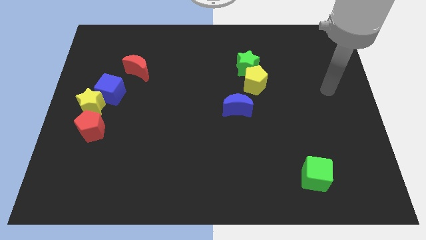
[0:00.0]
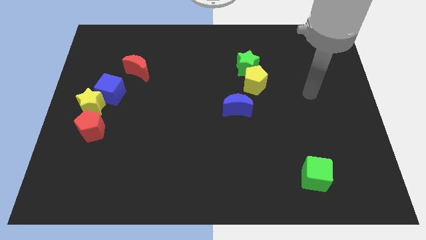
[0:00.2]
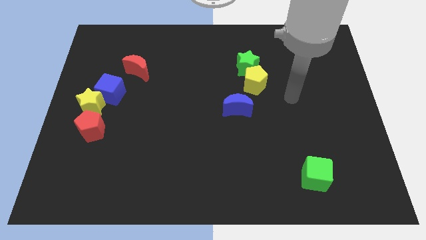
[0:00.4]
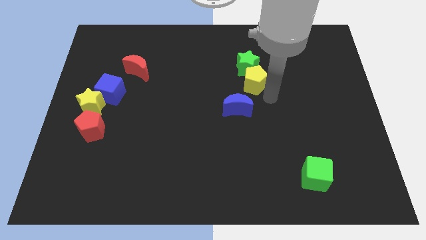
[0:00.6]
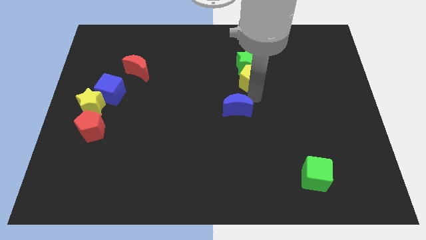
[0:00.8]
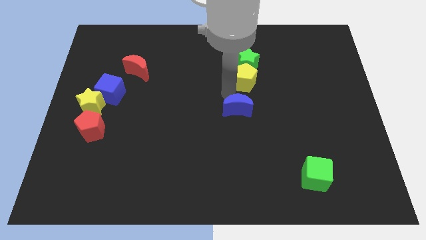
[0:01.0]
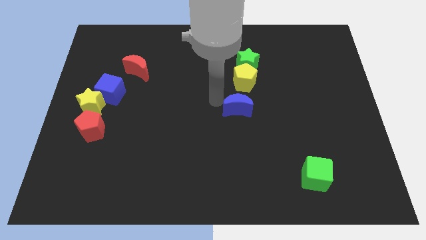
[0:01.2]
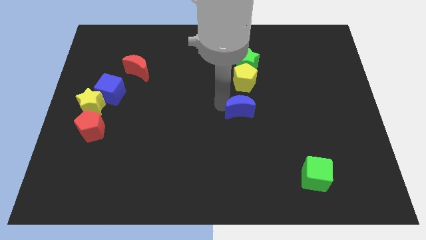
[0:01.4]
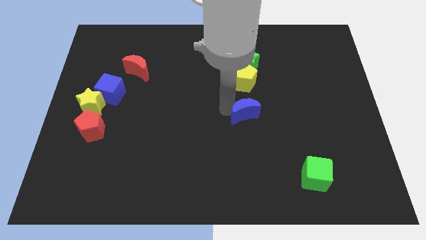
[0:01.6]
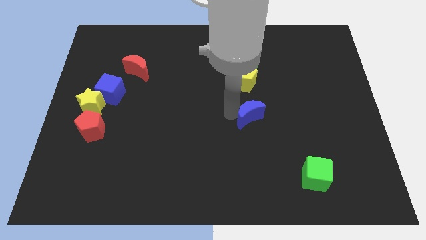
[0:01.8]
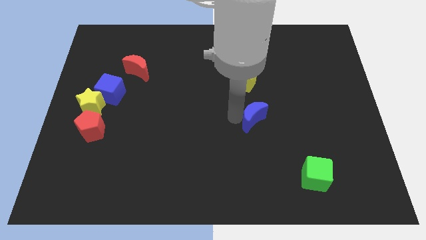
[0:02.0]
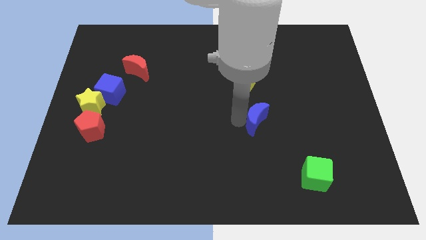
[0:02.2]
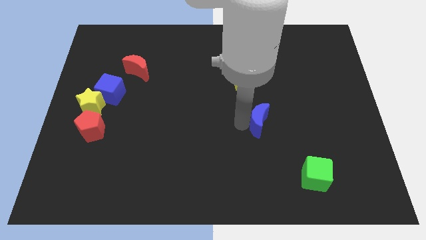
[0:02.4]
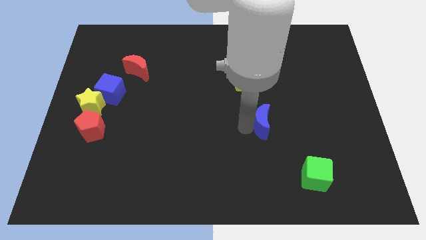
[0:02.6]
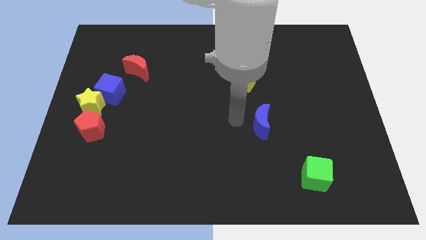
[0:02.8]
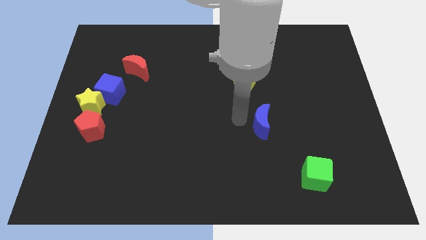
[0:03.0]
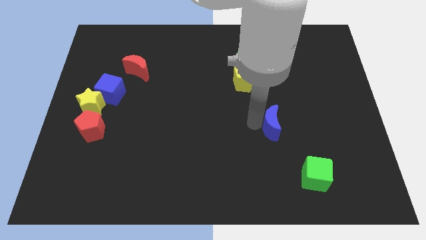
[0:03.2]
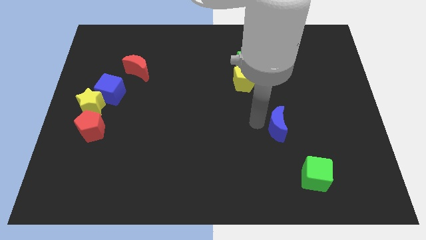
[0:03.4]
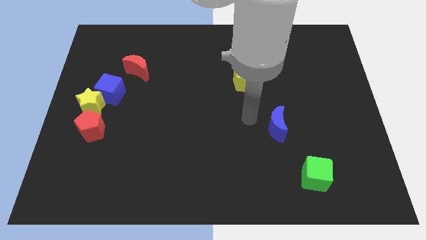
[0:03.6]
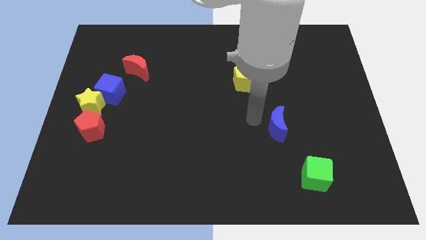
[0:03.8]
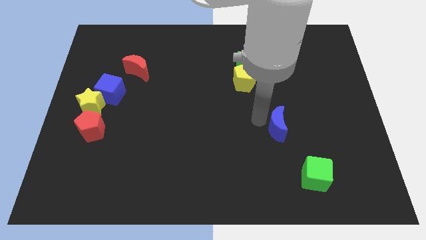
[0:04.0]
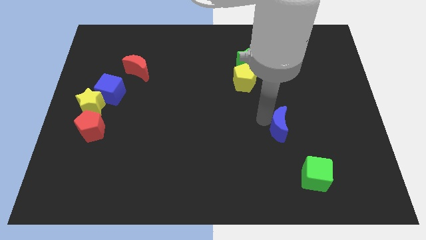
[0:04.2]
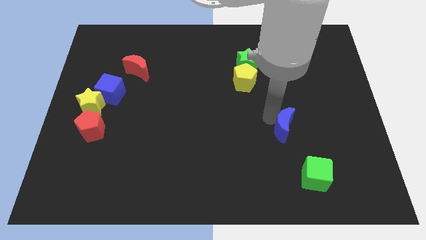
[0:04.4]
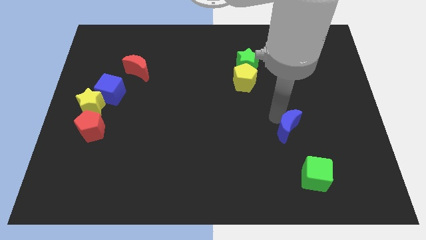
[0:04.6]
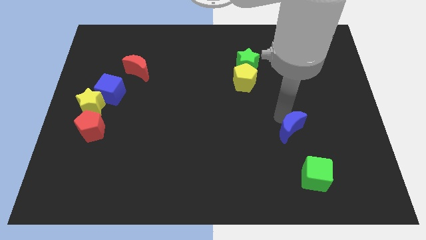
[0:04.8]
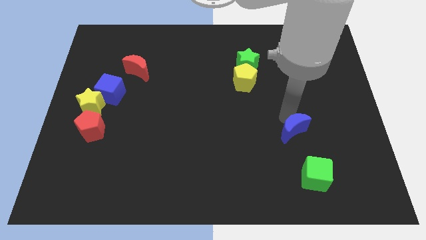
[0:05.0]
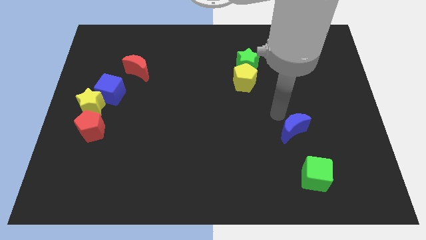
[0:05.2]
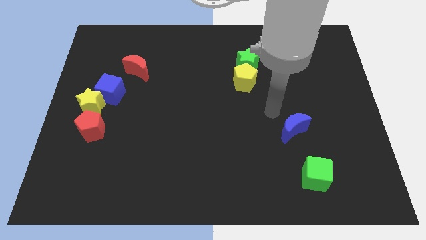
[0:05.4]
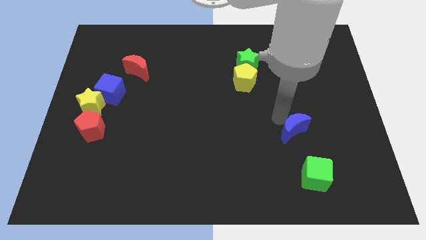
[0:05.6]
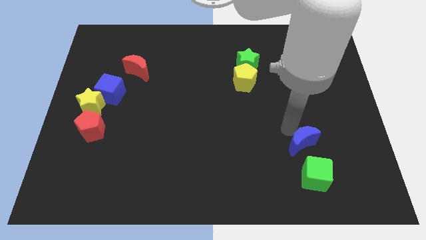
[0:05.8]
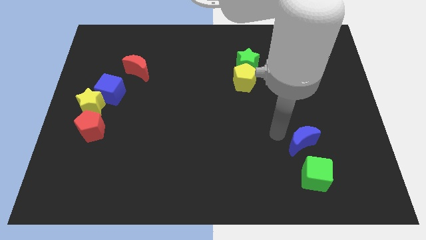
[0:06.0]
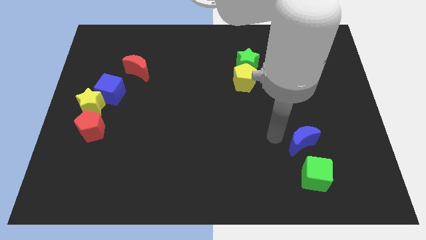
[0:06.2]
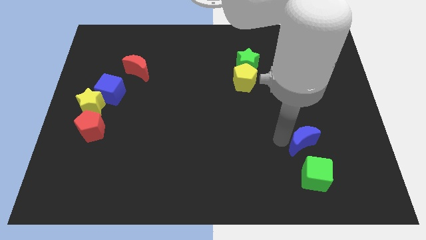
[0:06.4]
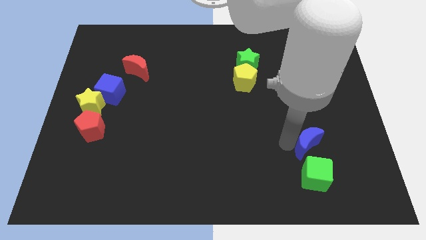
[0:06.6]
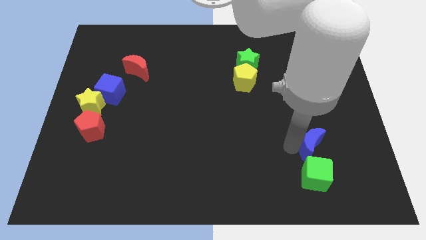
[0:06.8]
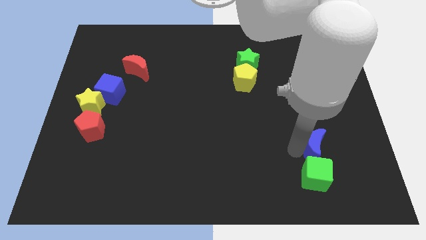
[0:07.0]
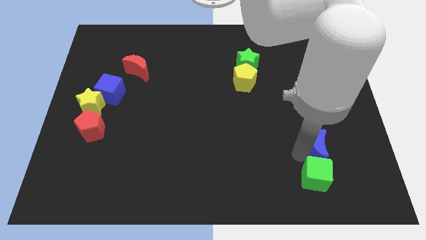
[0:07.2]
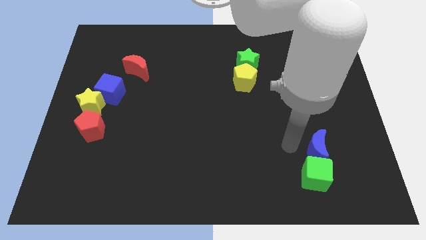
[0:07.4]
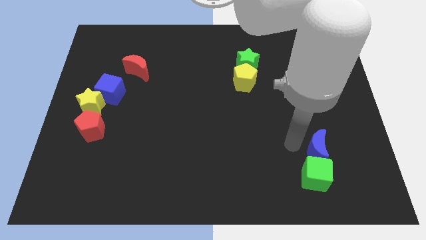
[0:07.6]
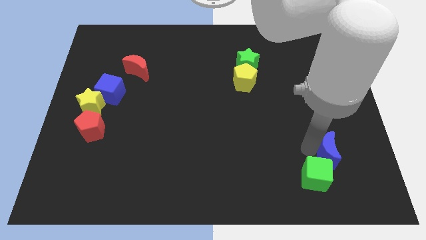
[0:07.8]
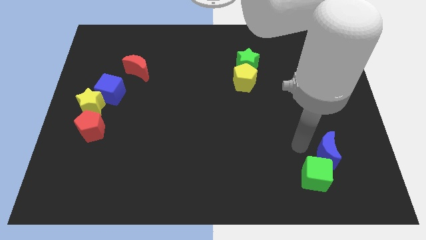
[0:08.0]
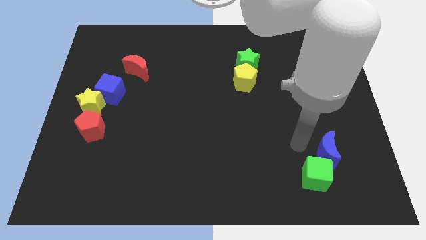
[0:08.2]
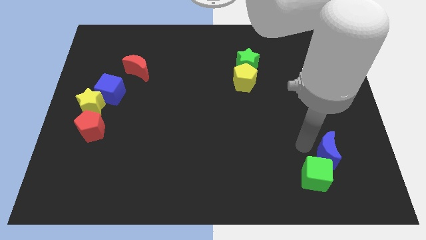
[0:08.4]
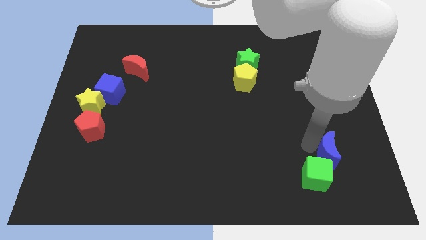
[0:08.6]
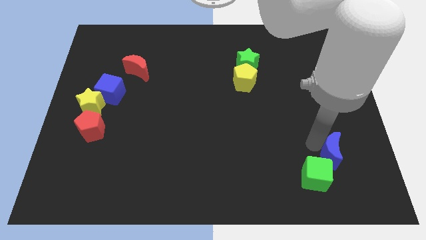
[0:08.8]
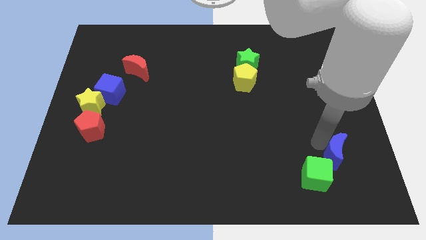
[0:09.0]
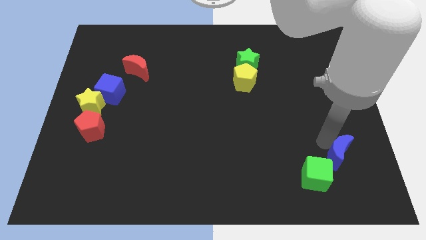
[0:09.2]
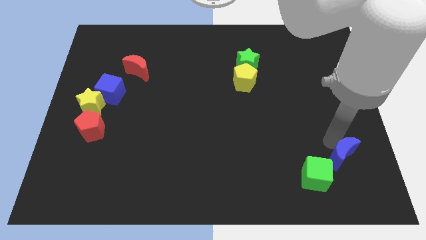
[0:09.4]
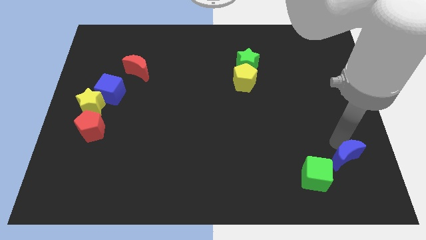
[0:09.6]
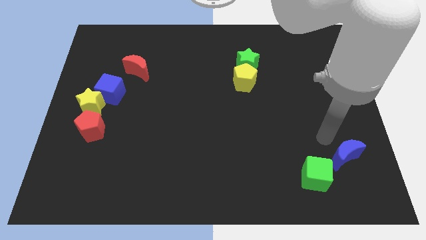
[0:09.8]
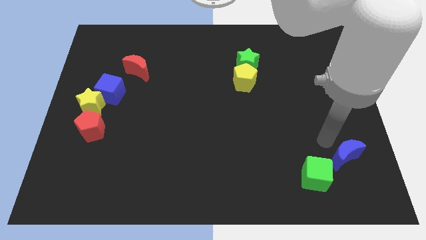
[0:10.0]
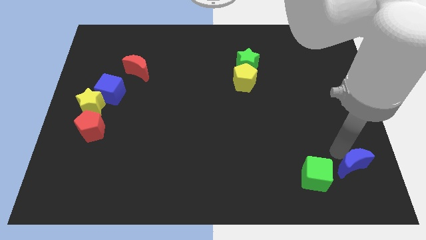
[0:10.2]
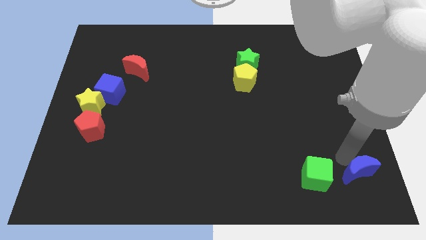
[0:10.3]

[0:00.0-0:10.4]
push the blue moon to the bottom right corner

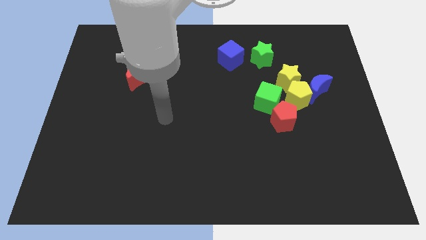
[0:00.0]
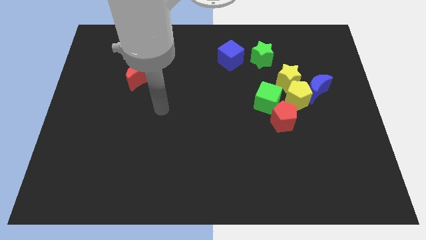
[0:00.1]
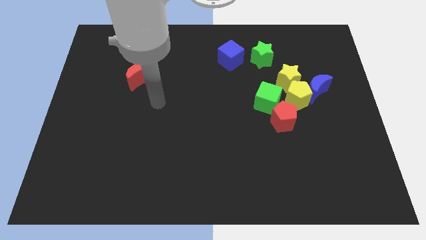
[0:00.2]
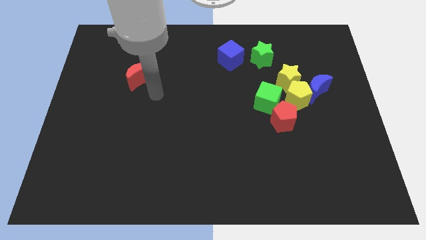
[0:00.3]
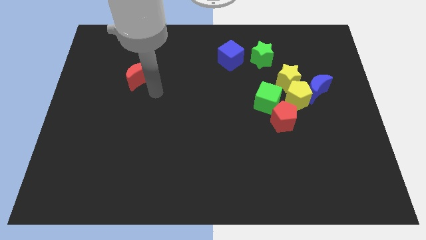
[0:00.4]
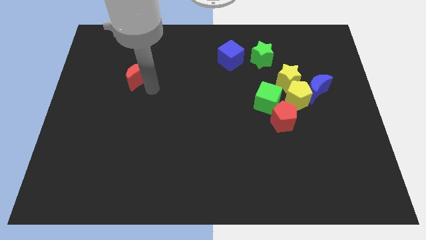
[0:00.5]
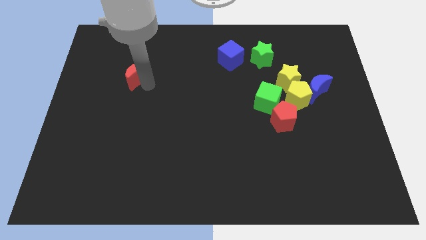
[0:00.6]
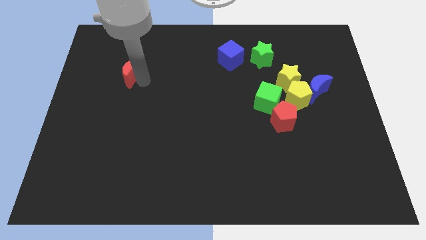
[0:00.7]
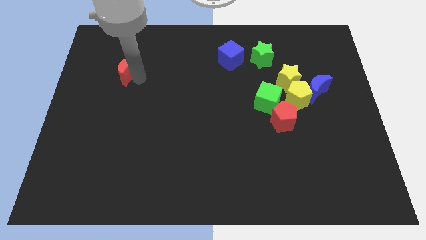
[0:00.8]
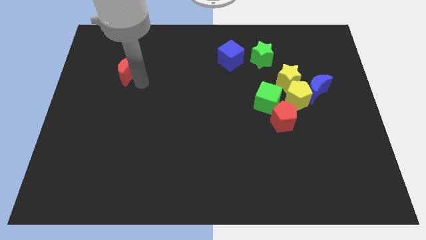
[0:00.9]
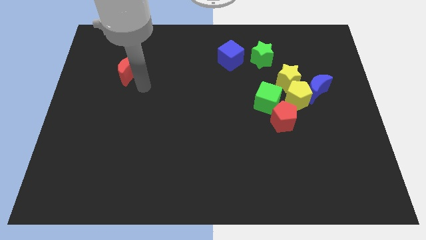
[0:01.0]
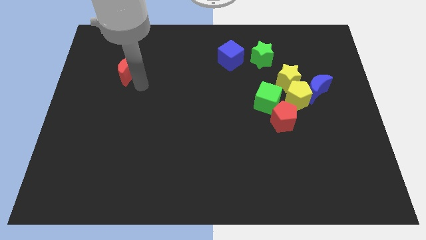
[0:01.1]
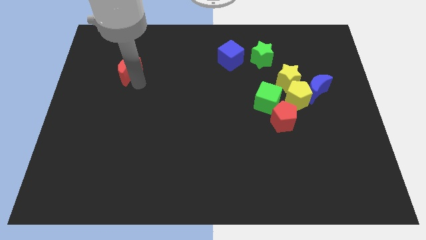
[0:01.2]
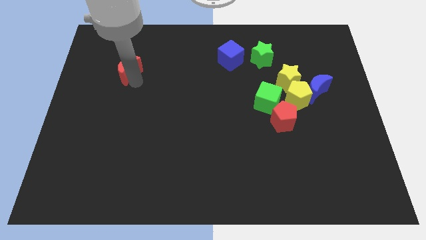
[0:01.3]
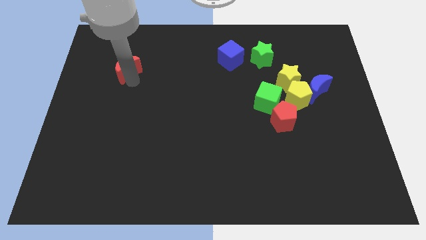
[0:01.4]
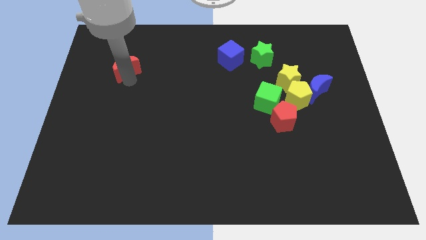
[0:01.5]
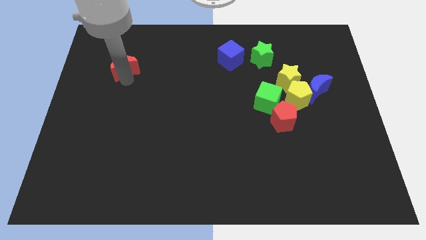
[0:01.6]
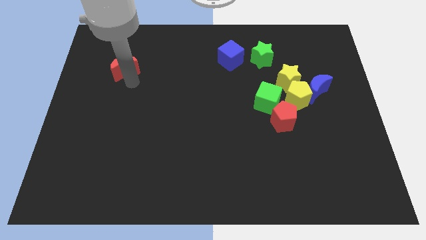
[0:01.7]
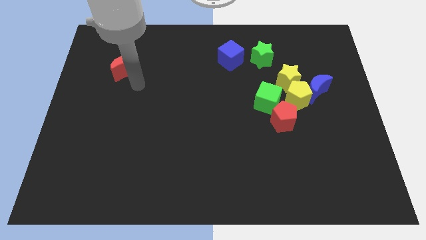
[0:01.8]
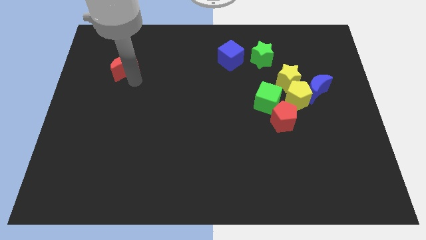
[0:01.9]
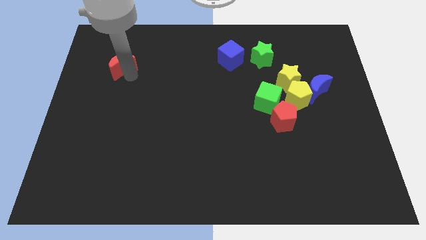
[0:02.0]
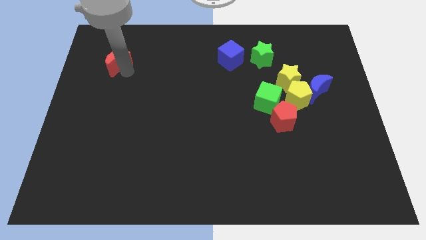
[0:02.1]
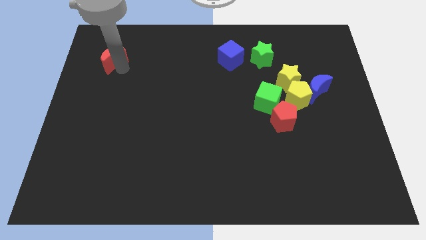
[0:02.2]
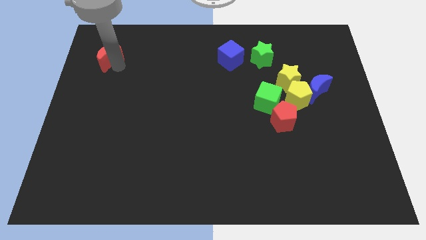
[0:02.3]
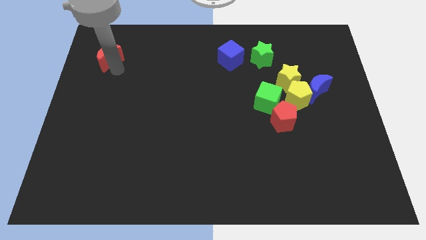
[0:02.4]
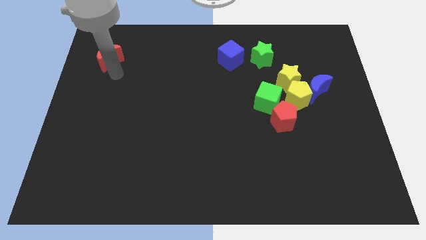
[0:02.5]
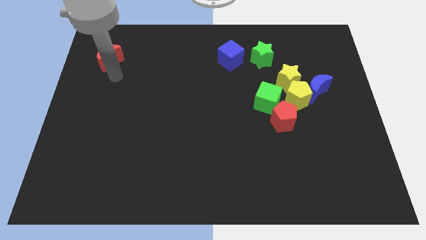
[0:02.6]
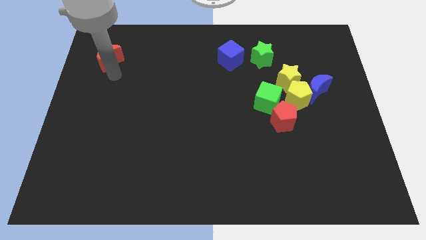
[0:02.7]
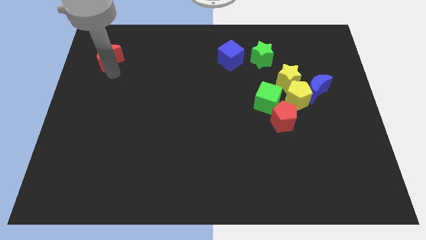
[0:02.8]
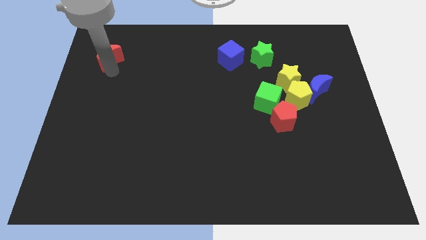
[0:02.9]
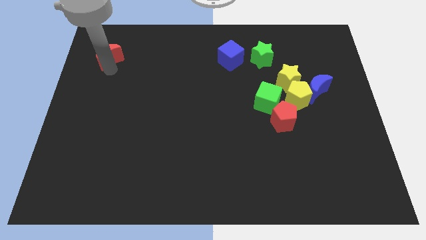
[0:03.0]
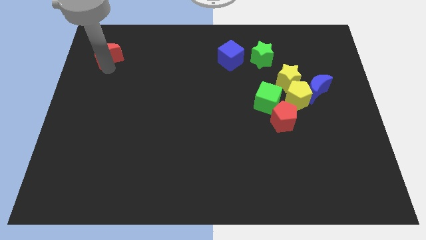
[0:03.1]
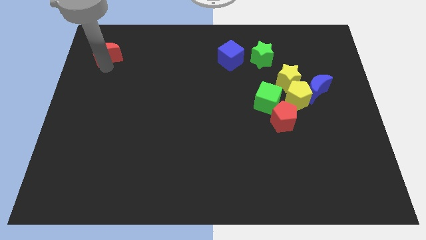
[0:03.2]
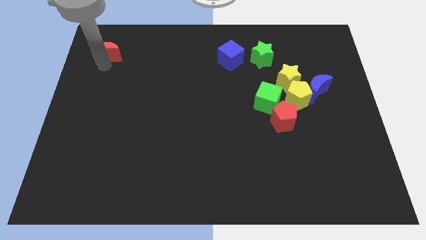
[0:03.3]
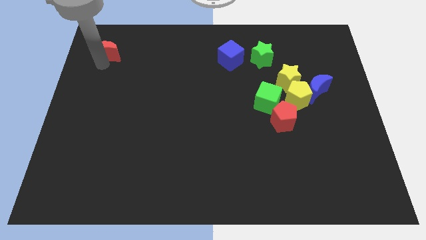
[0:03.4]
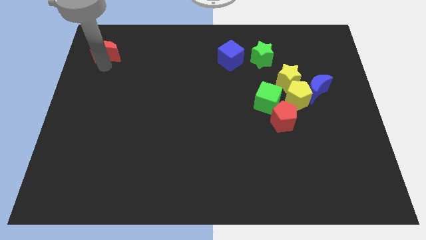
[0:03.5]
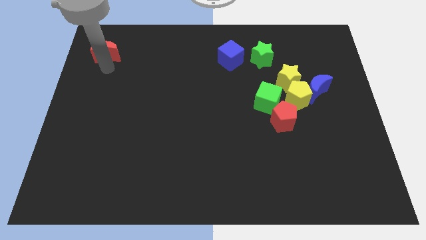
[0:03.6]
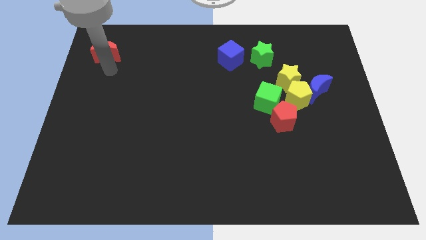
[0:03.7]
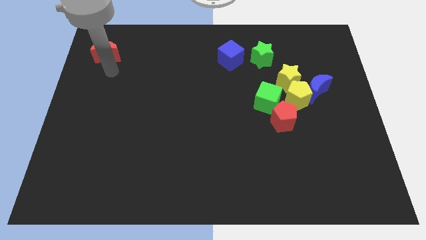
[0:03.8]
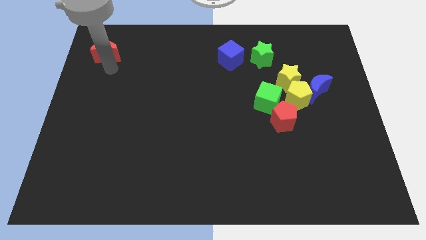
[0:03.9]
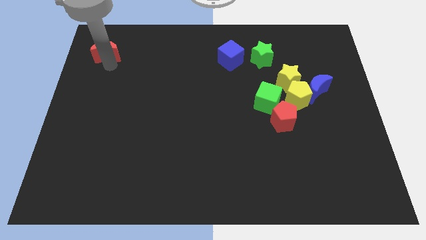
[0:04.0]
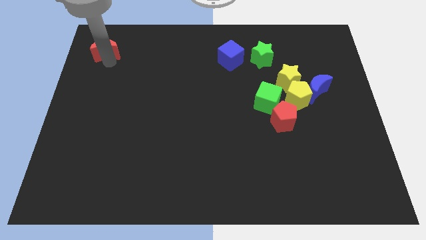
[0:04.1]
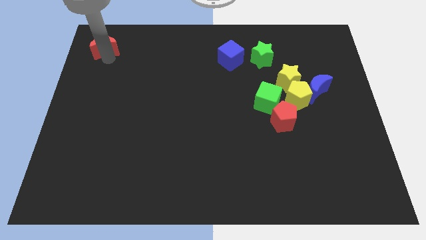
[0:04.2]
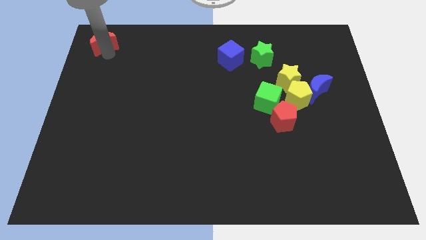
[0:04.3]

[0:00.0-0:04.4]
slide the red moon to the top left
